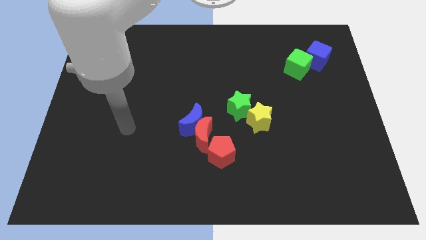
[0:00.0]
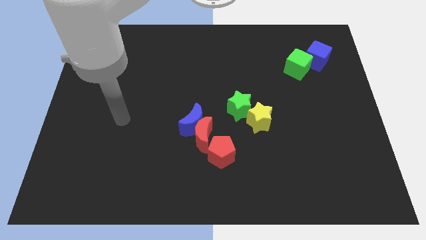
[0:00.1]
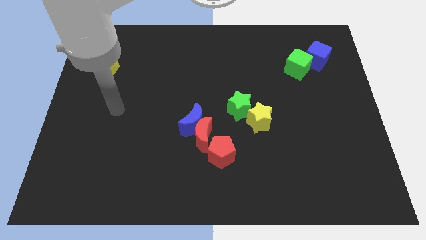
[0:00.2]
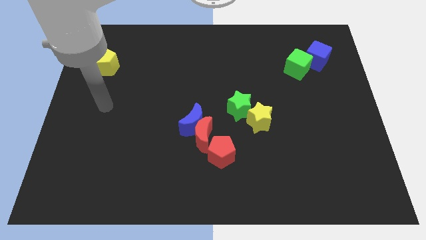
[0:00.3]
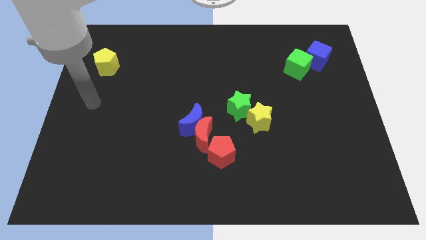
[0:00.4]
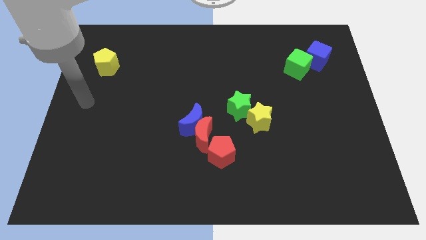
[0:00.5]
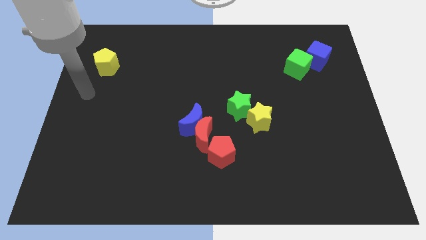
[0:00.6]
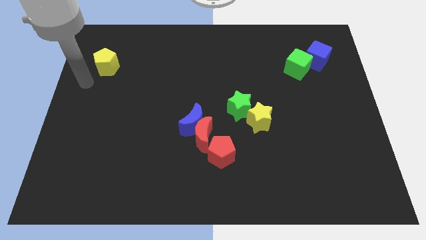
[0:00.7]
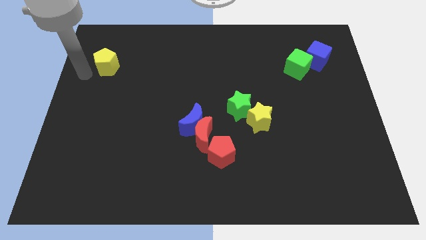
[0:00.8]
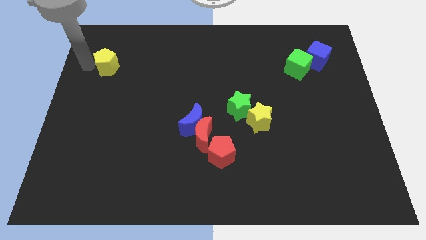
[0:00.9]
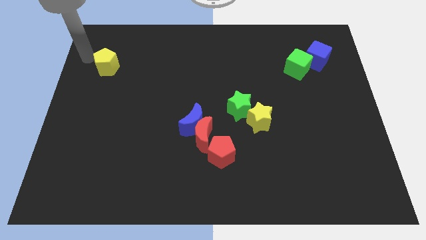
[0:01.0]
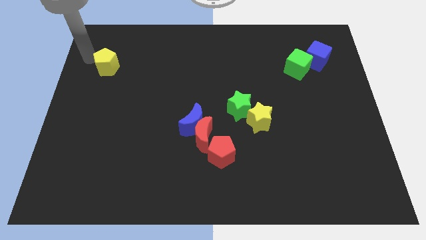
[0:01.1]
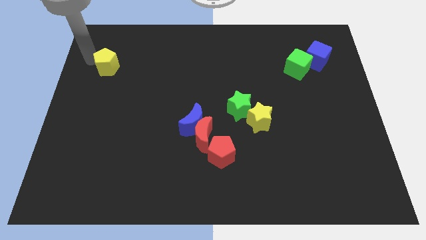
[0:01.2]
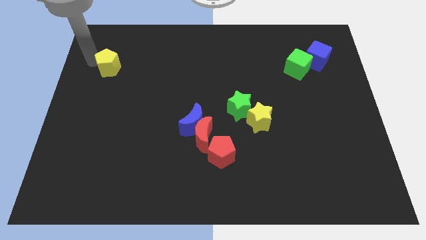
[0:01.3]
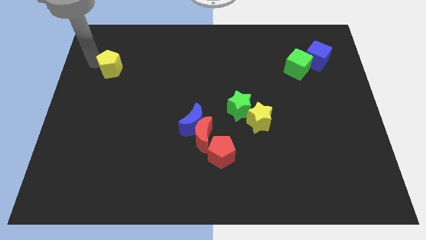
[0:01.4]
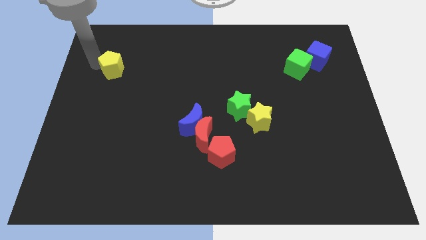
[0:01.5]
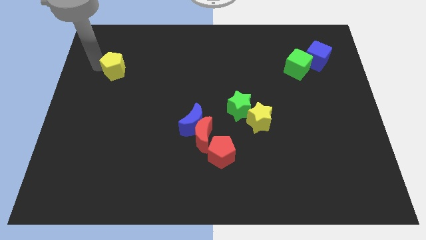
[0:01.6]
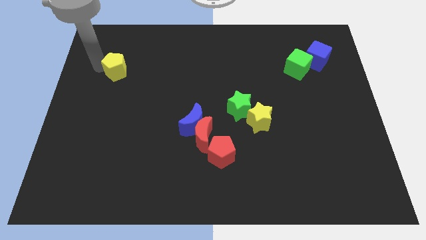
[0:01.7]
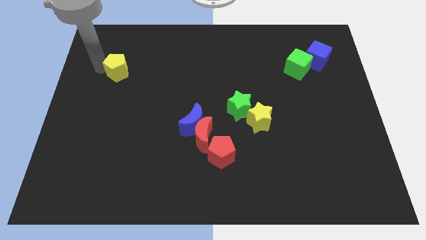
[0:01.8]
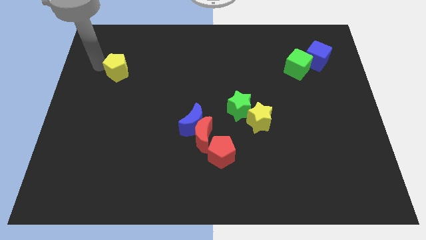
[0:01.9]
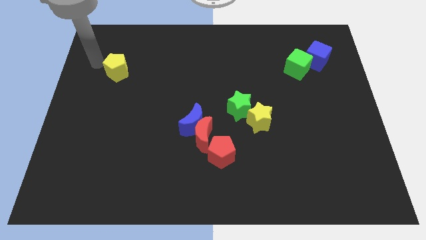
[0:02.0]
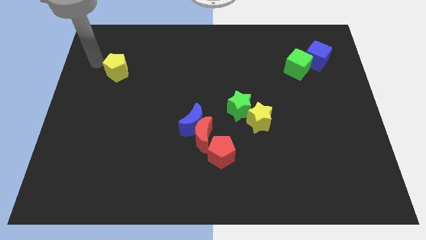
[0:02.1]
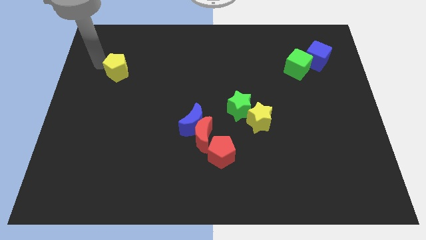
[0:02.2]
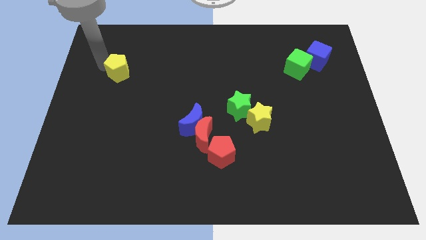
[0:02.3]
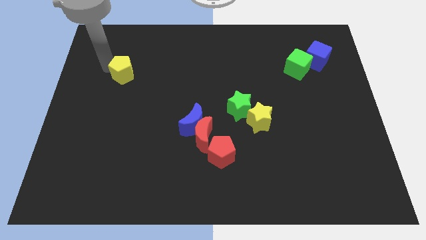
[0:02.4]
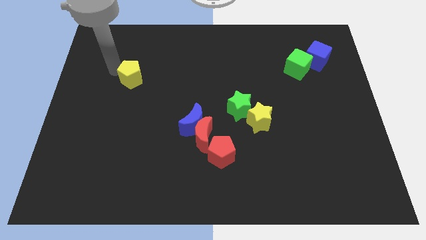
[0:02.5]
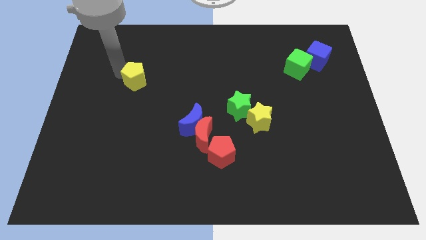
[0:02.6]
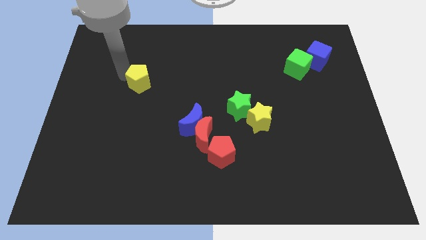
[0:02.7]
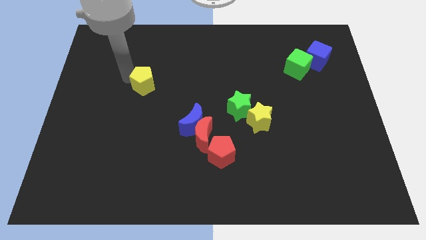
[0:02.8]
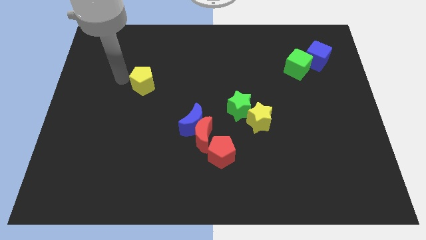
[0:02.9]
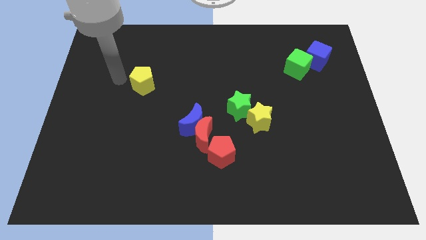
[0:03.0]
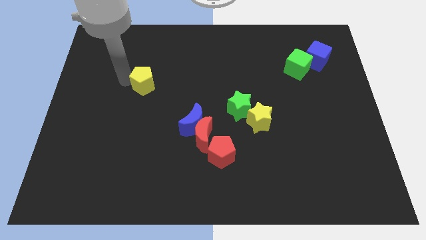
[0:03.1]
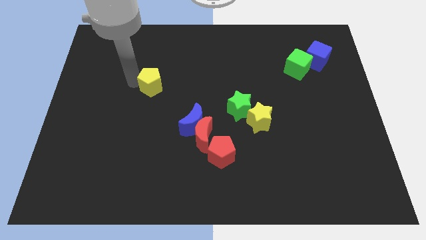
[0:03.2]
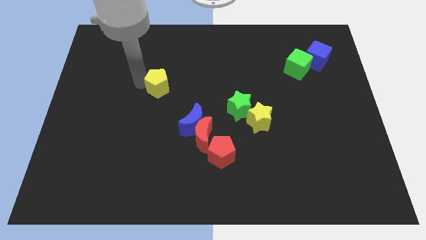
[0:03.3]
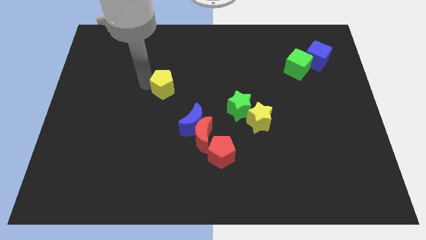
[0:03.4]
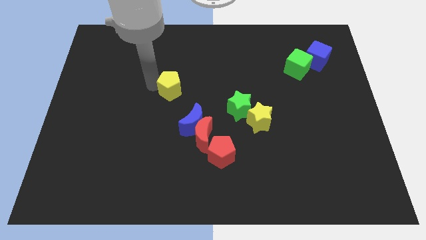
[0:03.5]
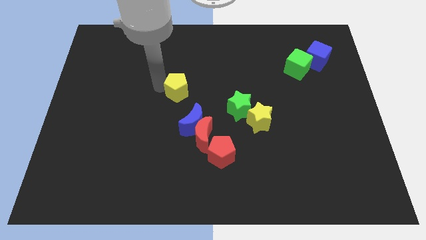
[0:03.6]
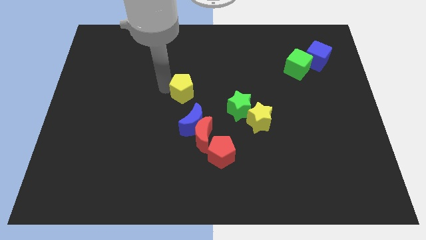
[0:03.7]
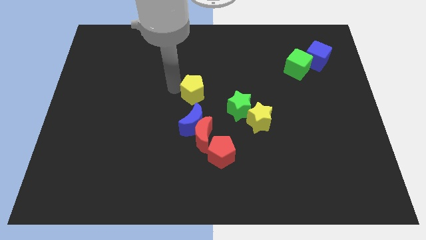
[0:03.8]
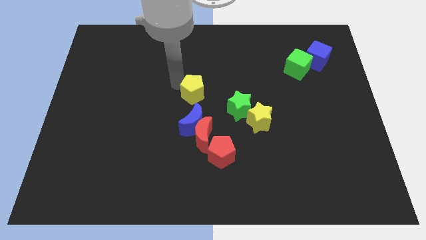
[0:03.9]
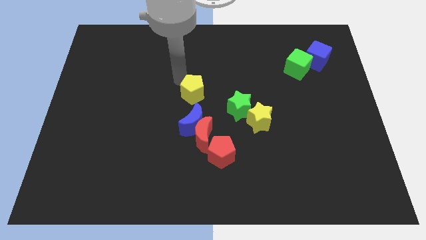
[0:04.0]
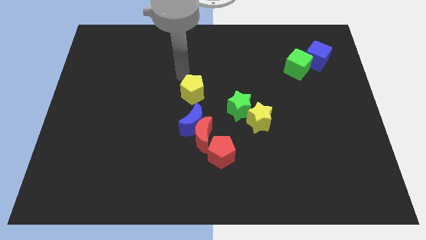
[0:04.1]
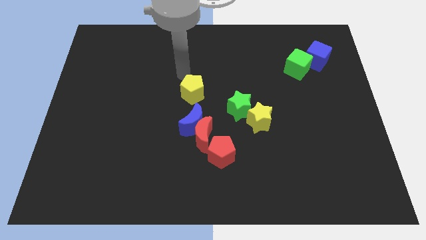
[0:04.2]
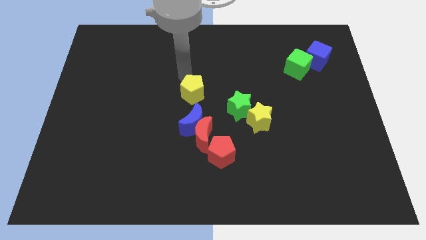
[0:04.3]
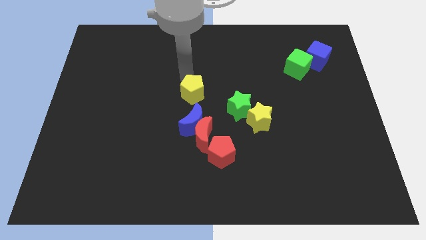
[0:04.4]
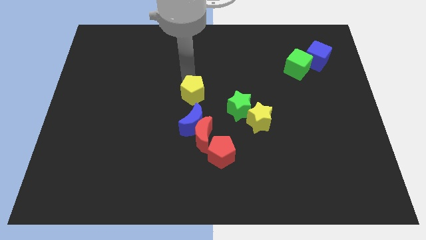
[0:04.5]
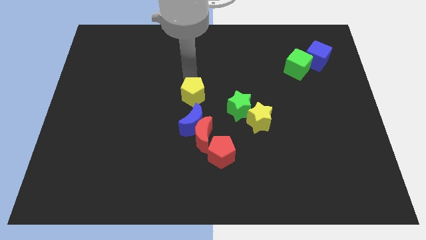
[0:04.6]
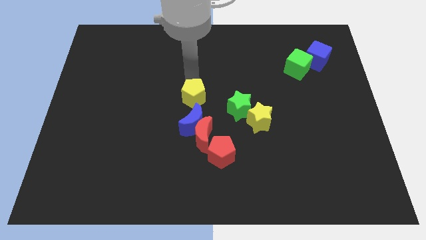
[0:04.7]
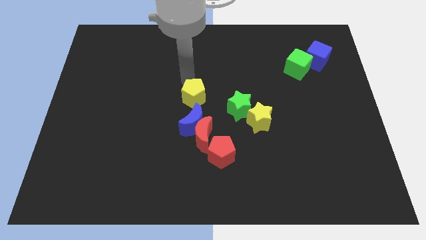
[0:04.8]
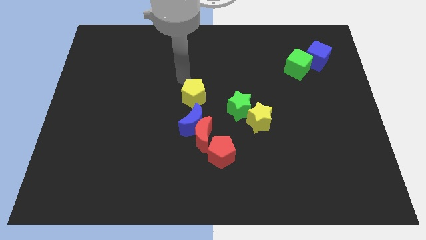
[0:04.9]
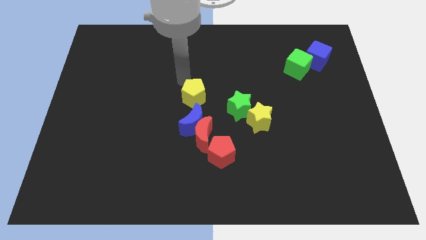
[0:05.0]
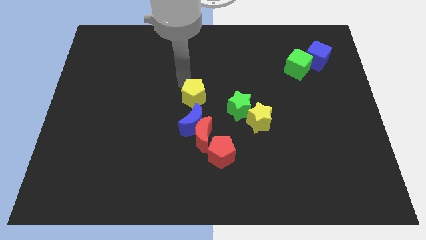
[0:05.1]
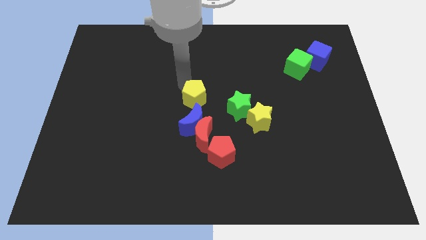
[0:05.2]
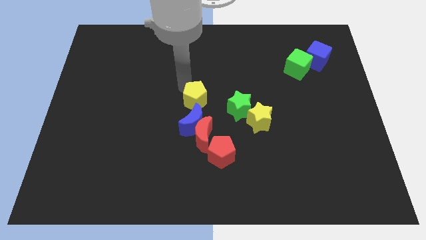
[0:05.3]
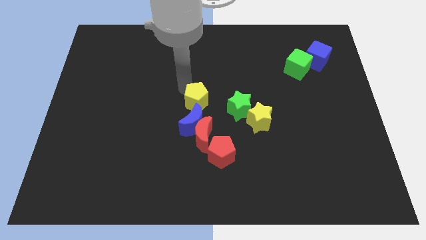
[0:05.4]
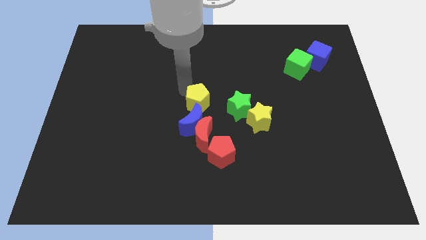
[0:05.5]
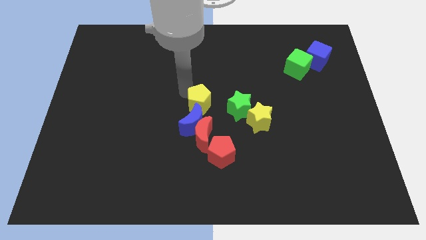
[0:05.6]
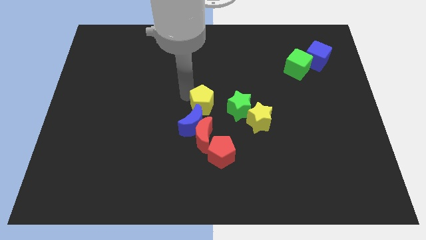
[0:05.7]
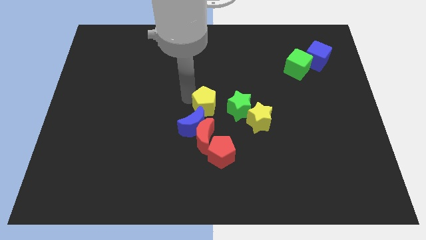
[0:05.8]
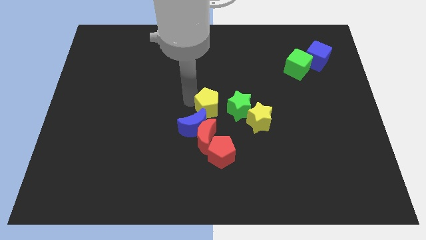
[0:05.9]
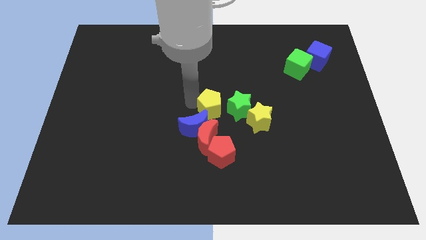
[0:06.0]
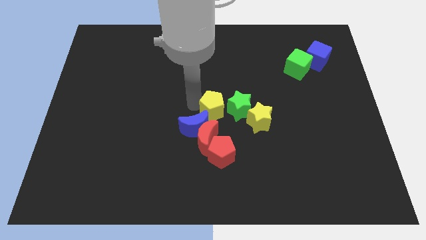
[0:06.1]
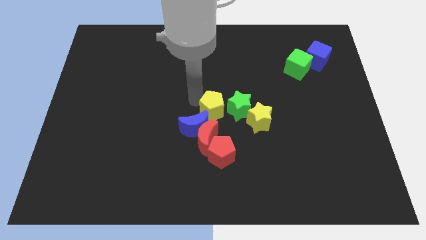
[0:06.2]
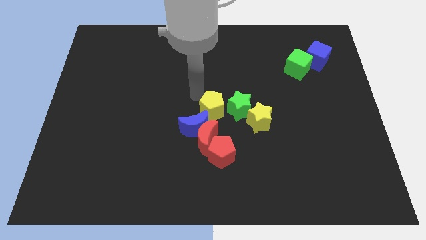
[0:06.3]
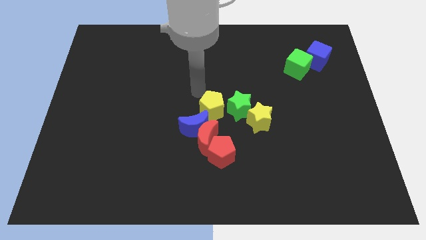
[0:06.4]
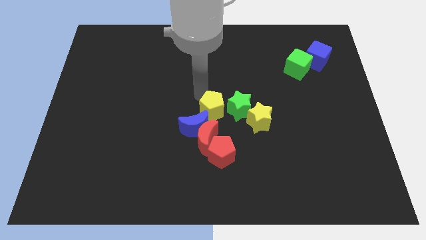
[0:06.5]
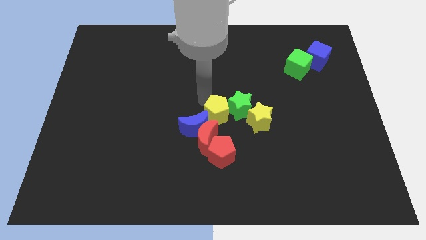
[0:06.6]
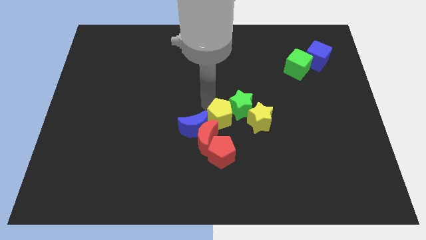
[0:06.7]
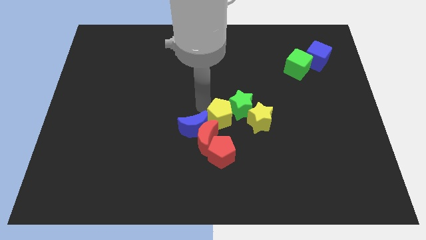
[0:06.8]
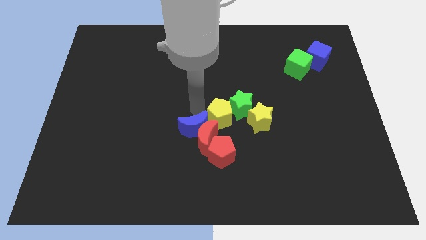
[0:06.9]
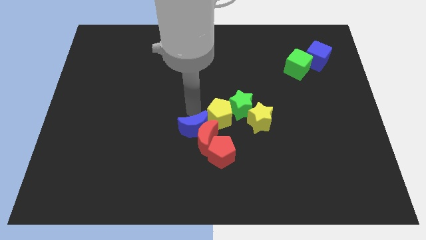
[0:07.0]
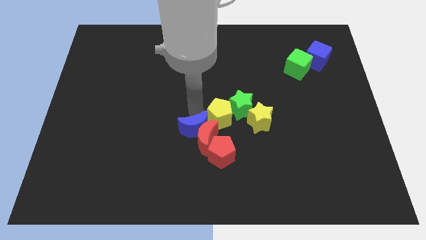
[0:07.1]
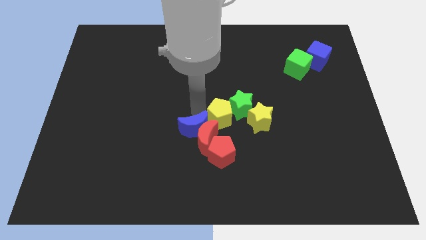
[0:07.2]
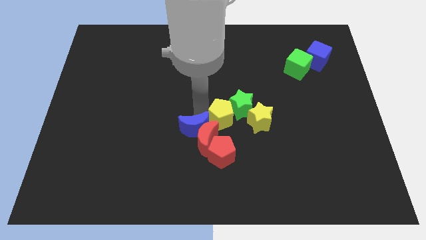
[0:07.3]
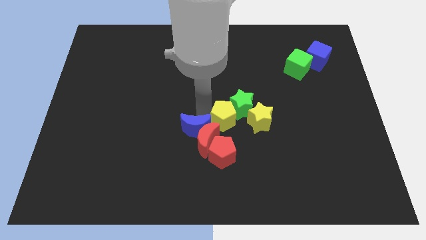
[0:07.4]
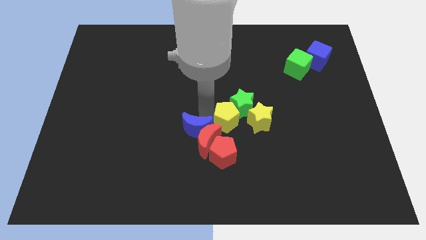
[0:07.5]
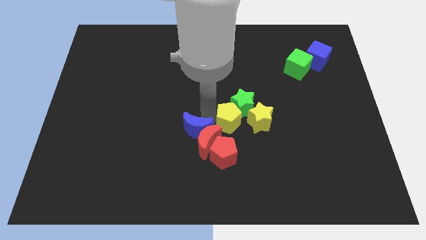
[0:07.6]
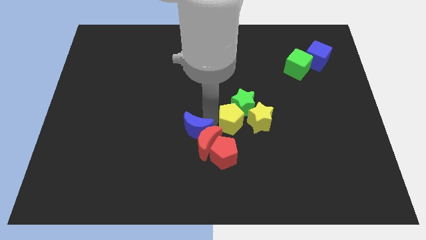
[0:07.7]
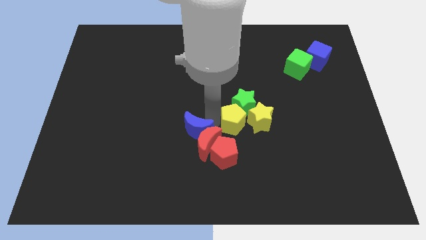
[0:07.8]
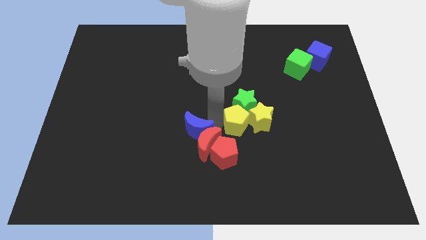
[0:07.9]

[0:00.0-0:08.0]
put the yellow pentagon close to the yellow star
